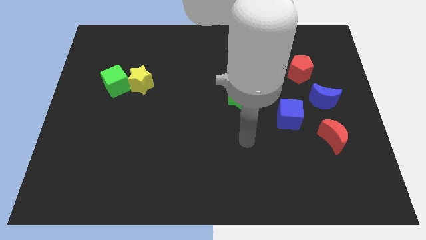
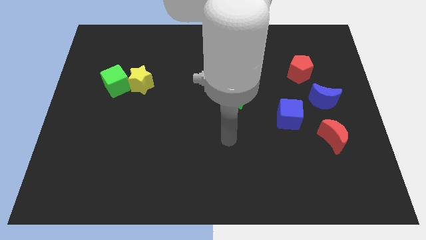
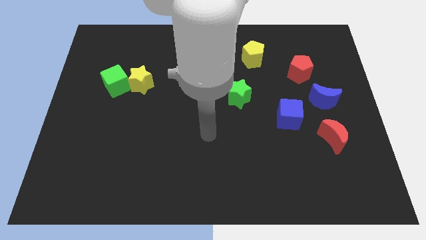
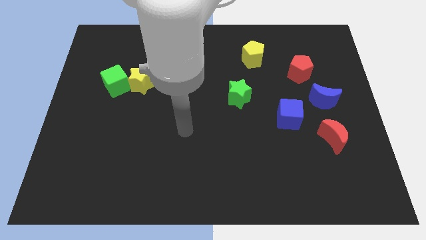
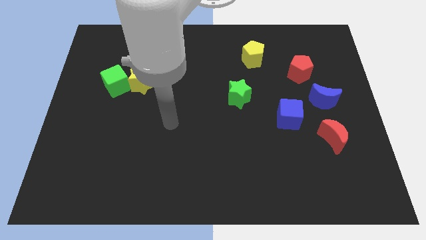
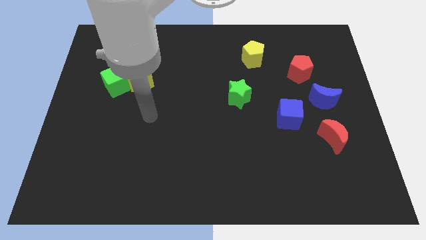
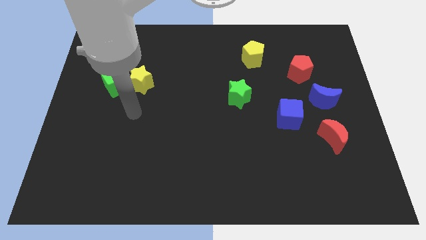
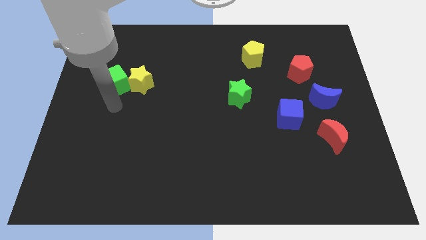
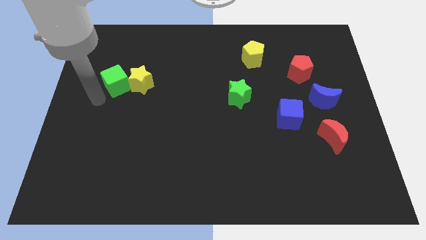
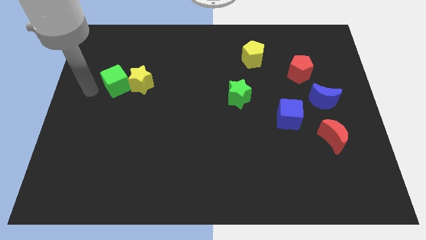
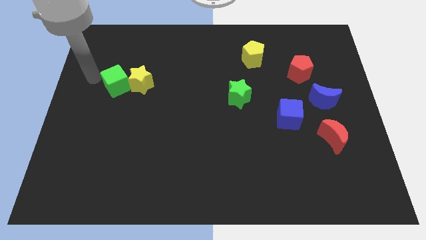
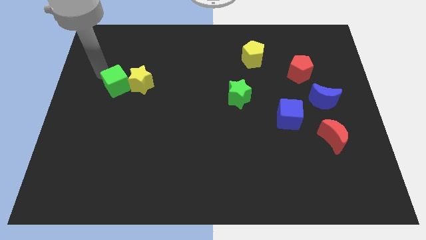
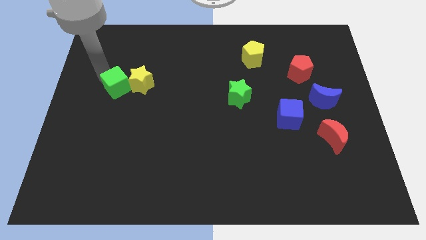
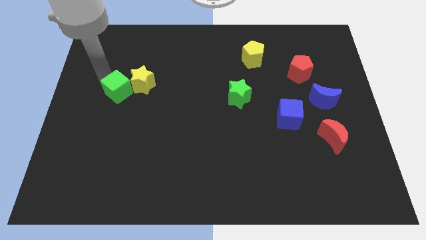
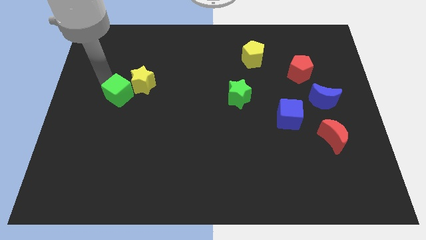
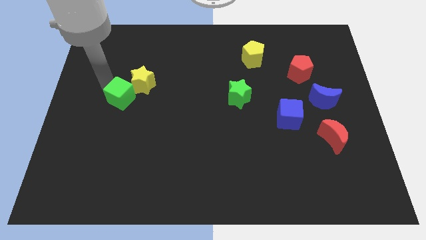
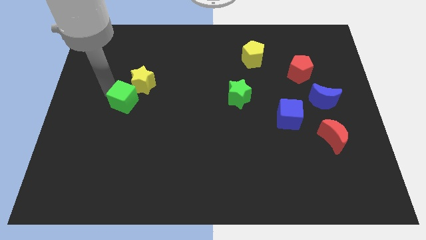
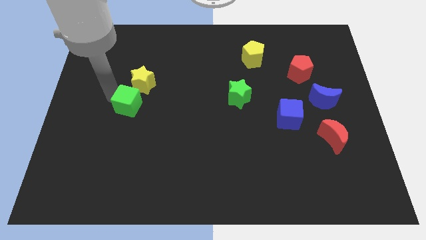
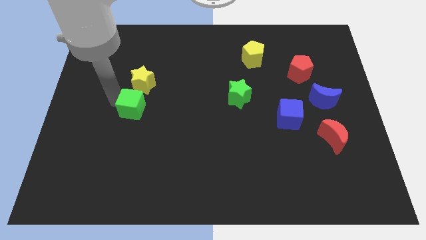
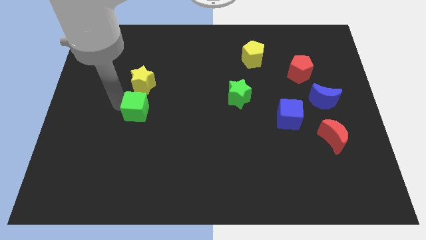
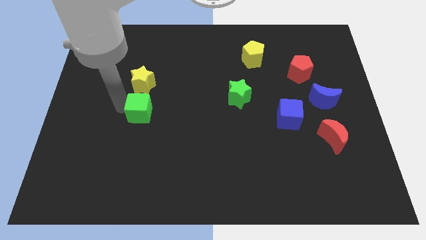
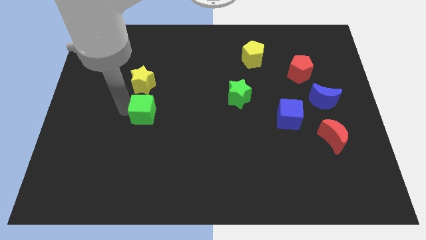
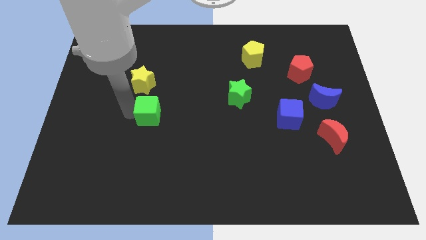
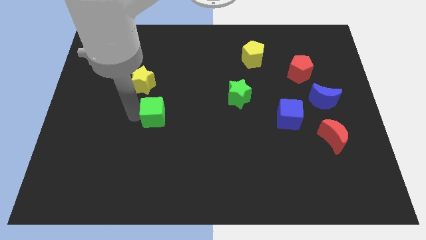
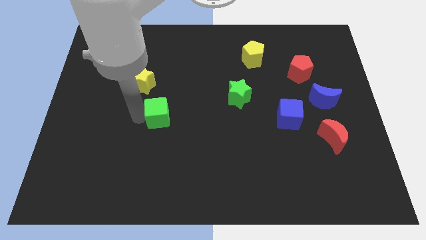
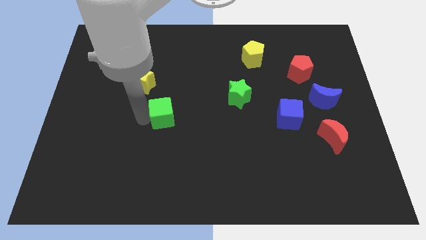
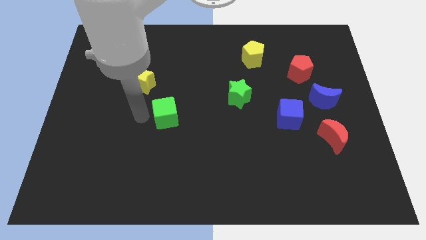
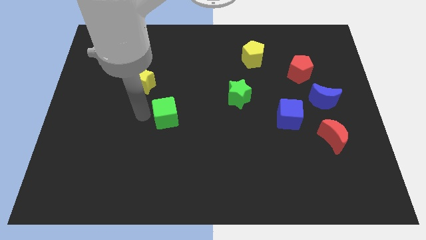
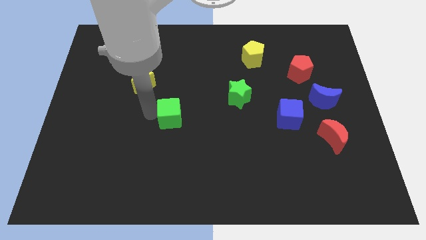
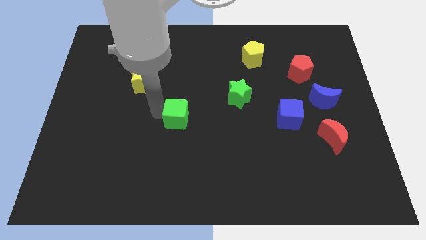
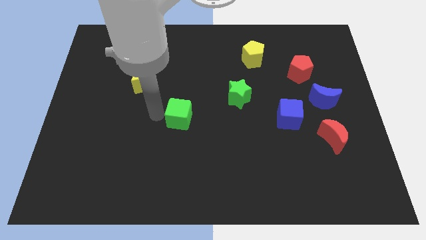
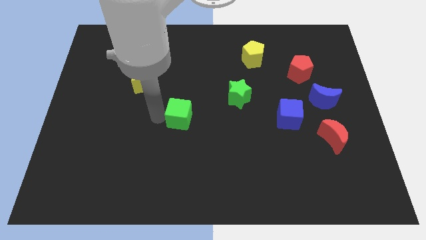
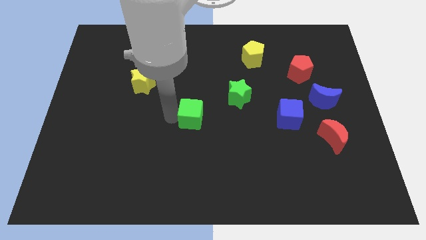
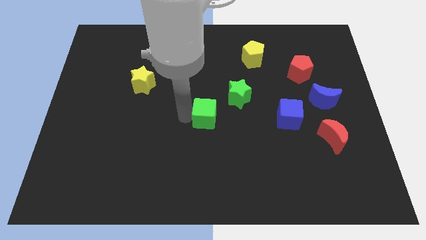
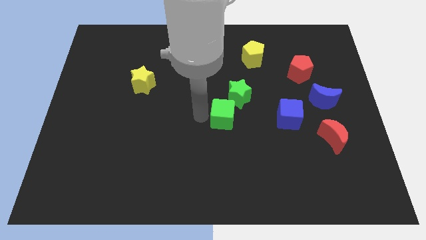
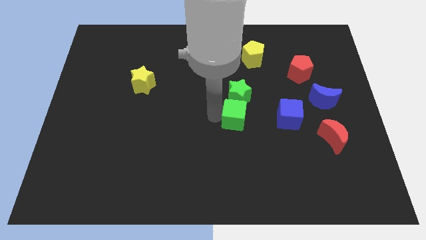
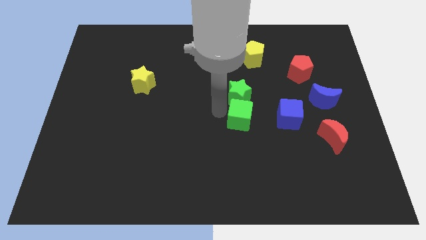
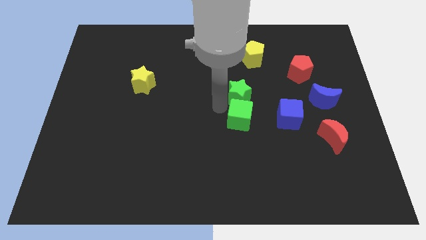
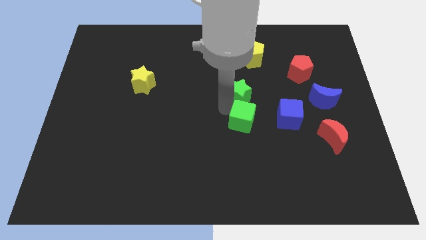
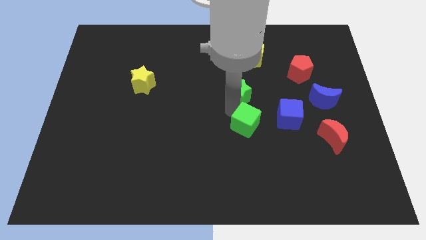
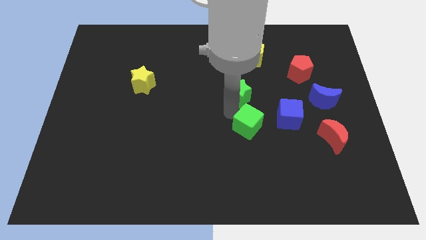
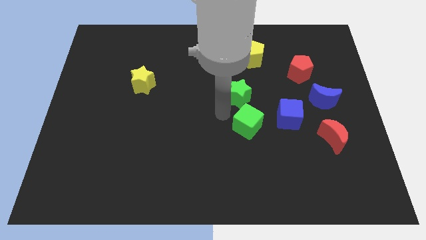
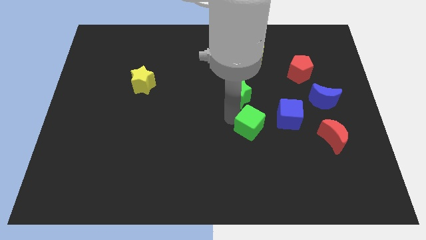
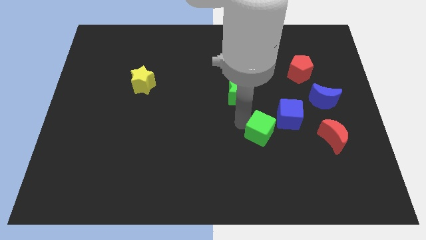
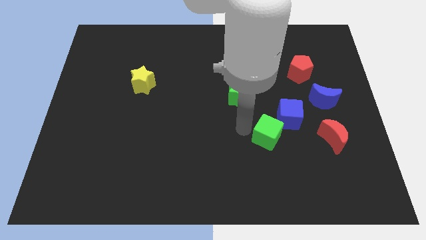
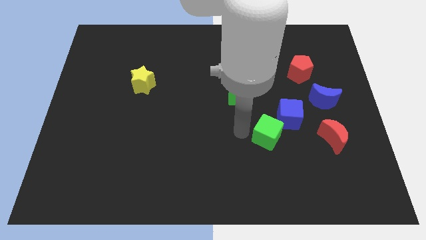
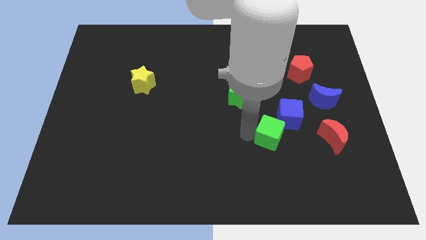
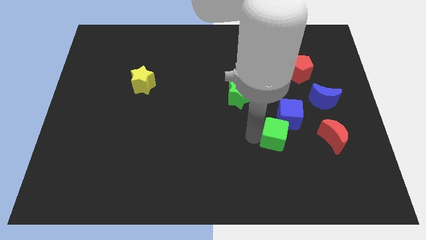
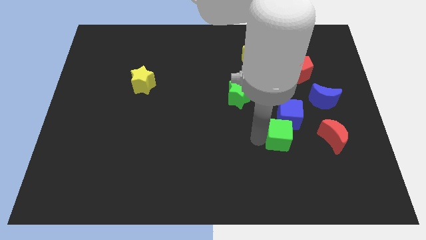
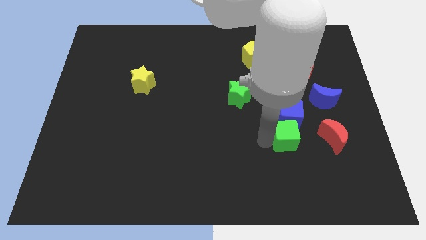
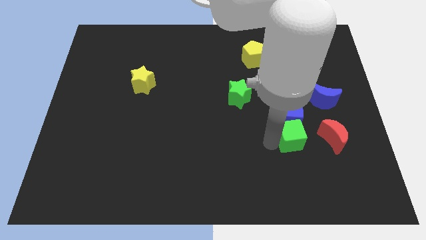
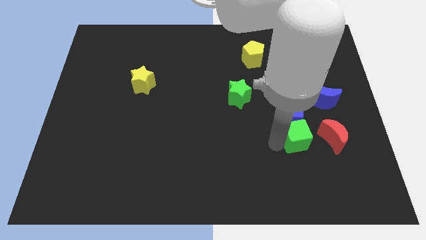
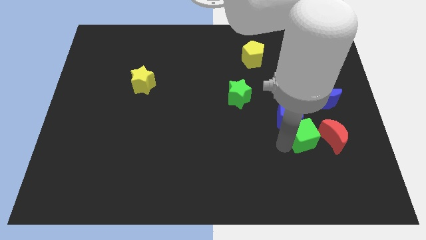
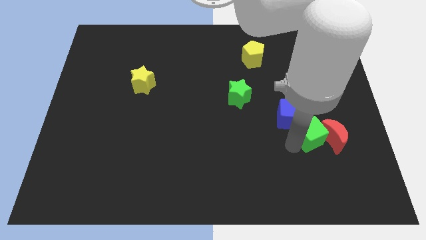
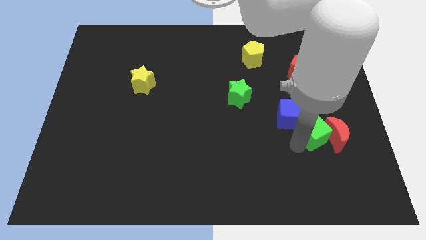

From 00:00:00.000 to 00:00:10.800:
put the green cube to the right of the blue cube

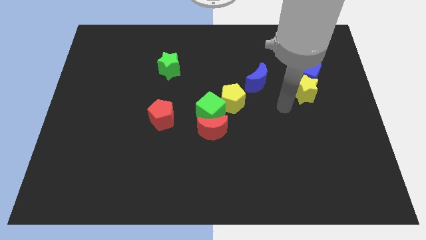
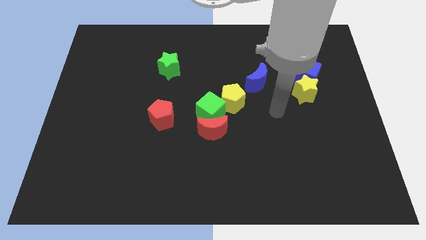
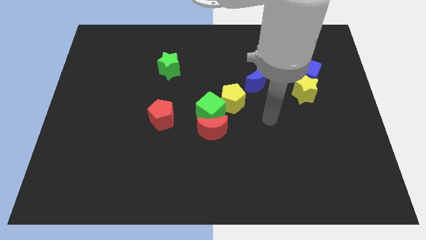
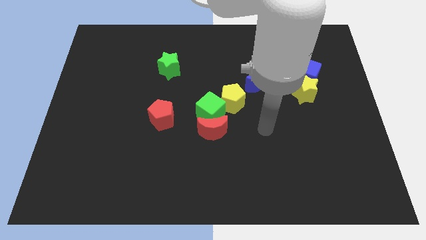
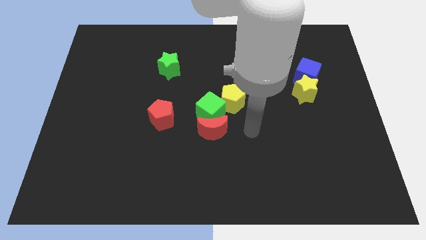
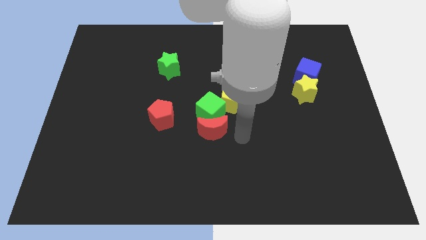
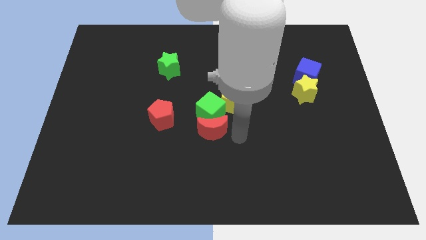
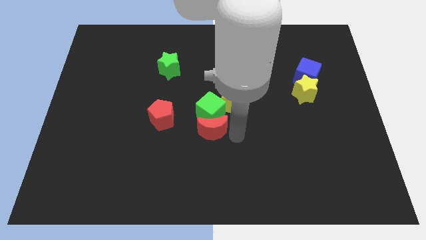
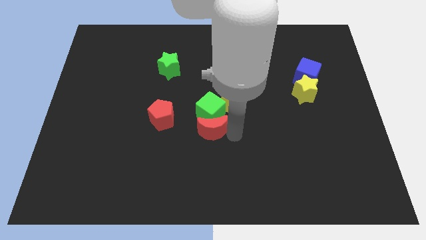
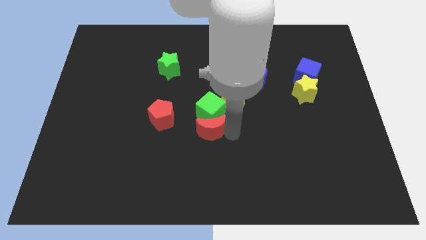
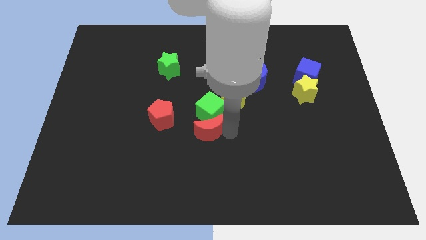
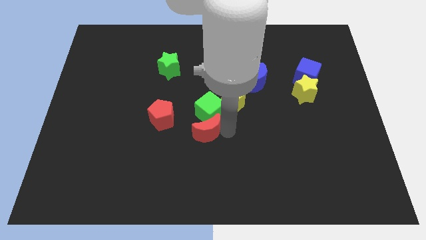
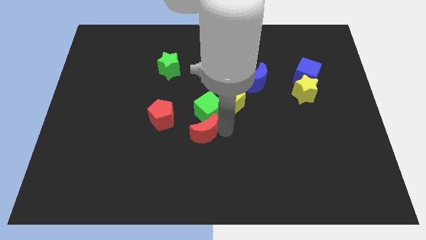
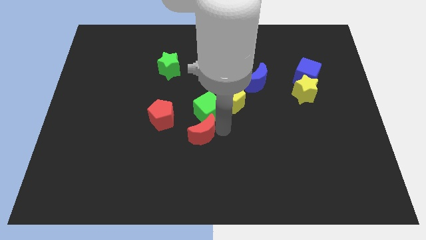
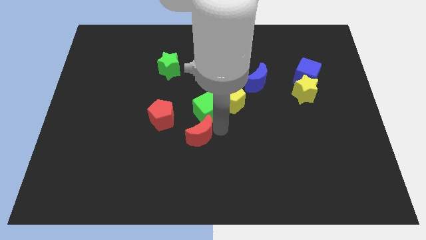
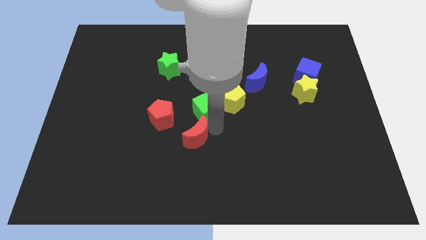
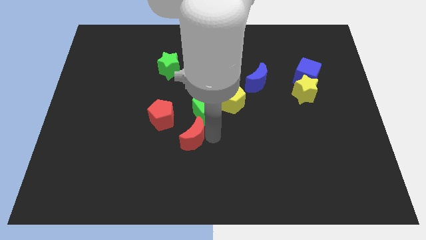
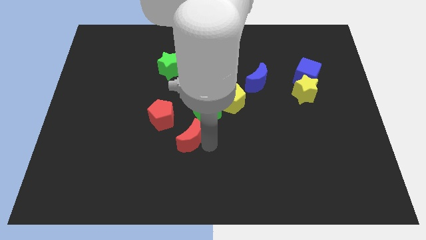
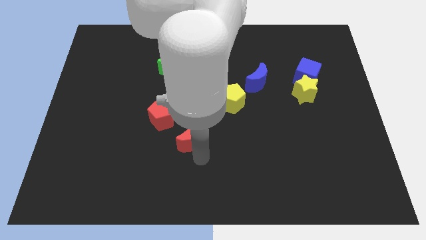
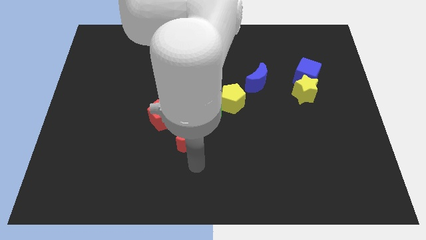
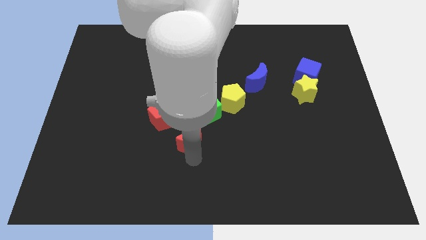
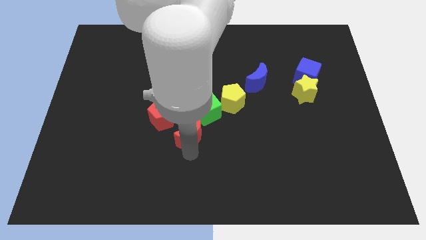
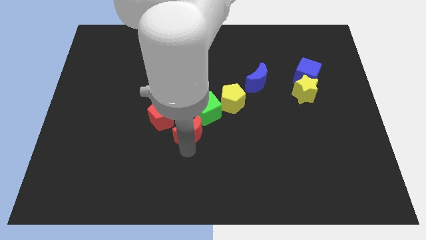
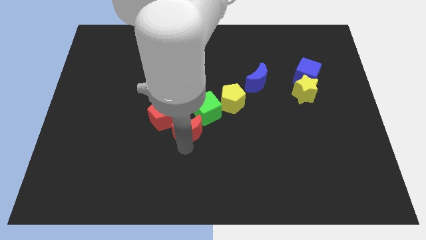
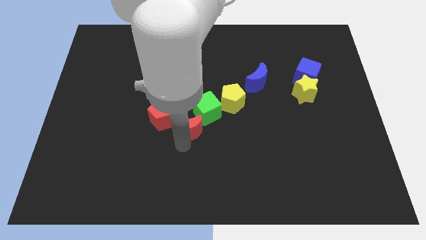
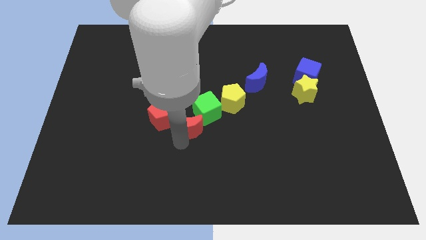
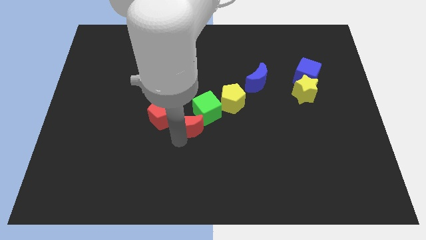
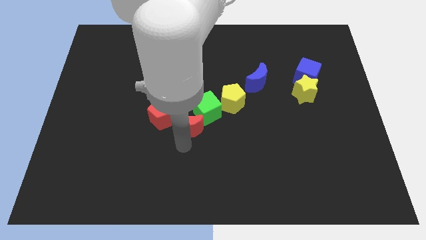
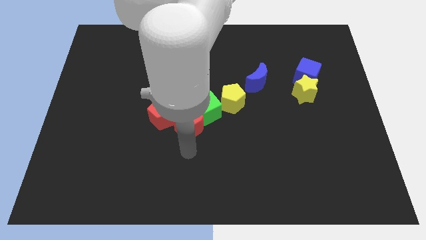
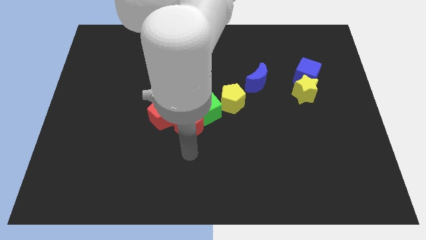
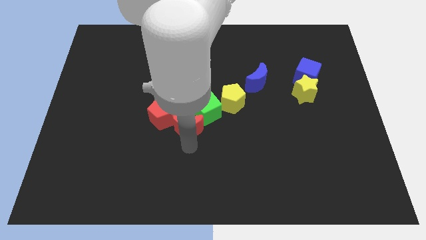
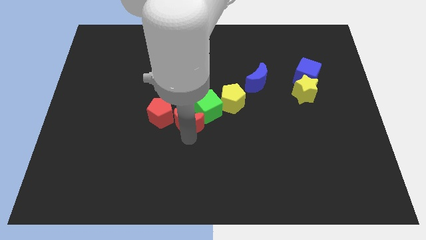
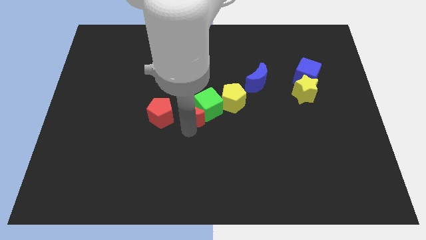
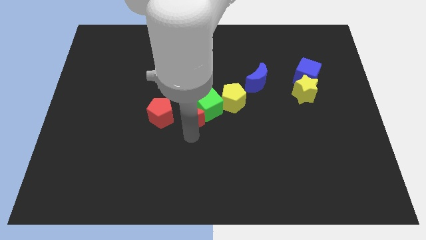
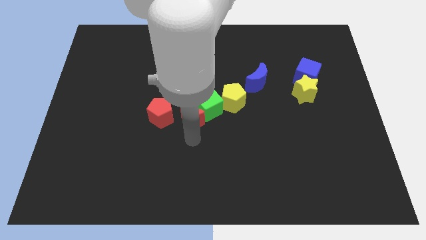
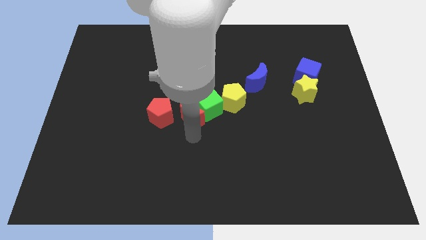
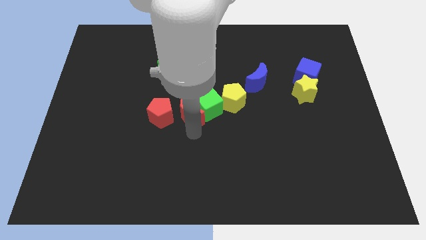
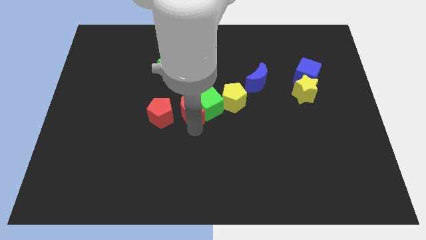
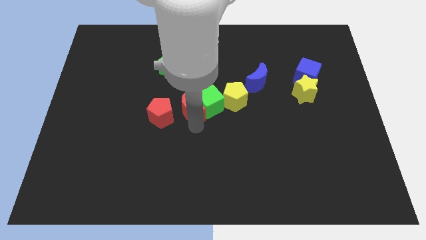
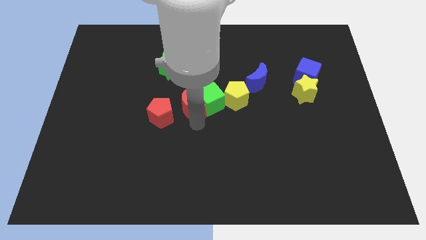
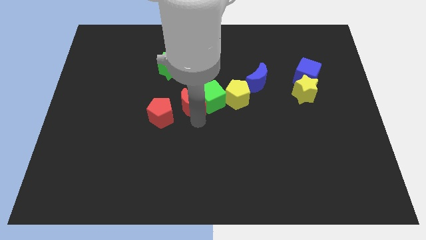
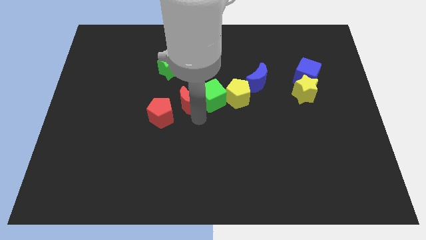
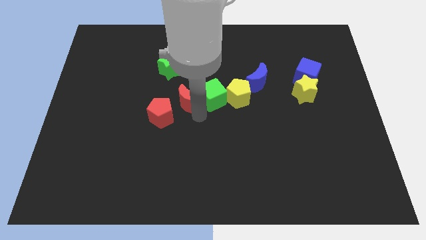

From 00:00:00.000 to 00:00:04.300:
move the red moon diagonally up and to the left of the green cube
